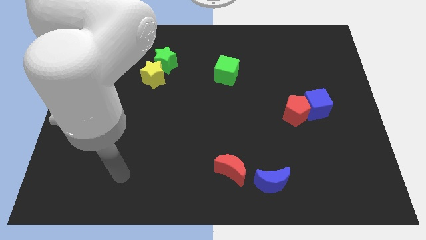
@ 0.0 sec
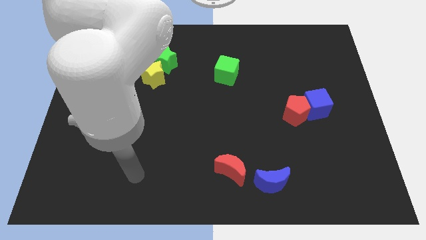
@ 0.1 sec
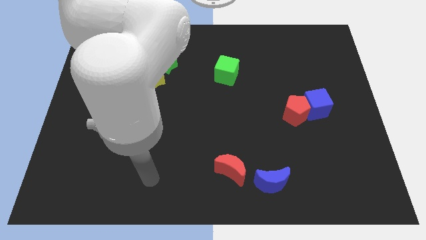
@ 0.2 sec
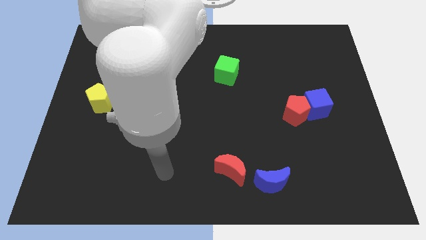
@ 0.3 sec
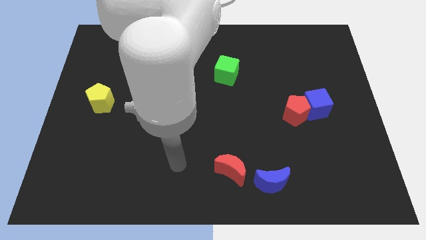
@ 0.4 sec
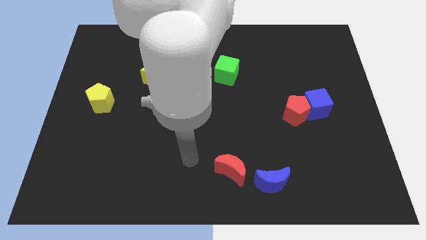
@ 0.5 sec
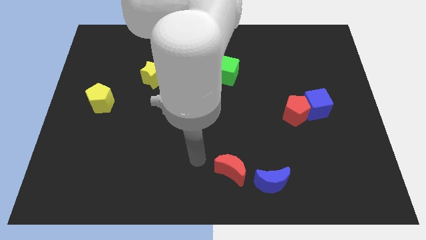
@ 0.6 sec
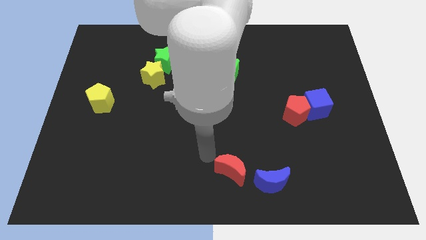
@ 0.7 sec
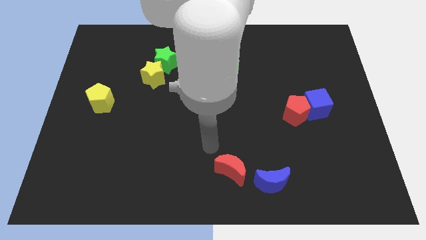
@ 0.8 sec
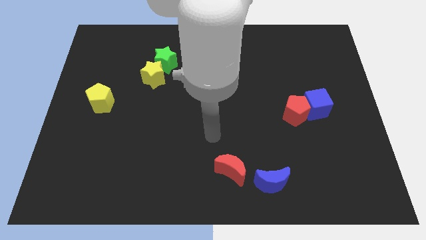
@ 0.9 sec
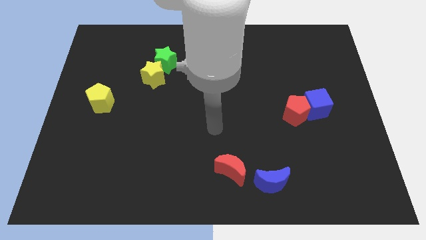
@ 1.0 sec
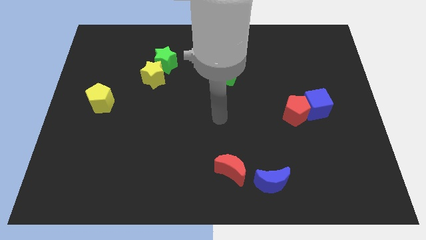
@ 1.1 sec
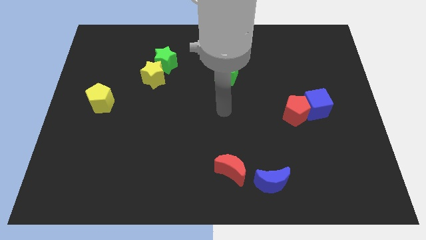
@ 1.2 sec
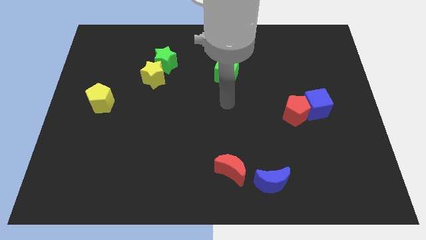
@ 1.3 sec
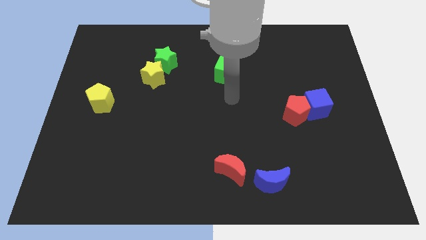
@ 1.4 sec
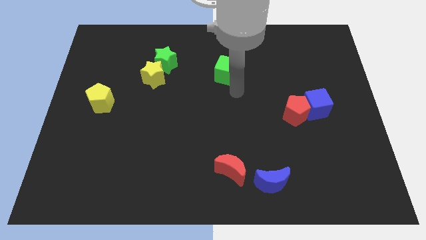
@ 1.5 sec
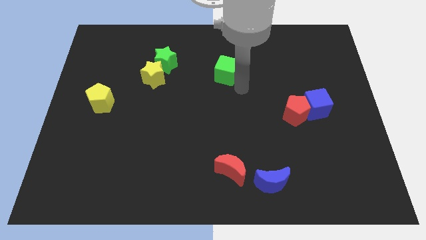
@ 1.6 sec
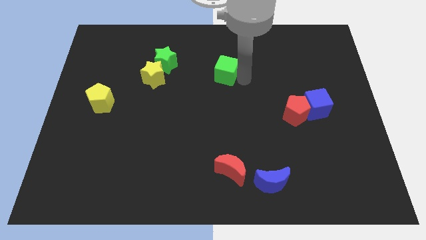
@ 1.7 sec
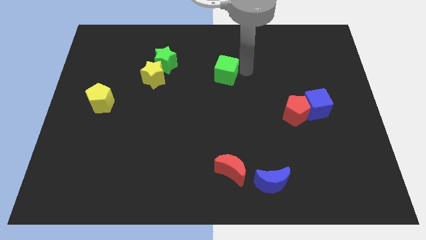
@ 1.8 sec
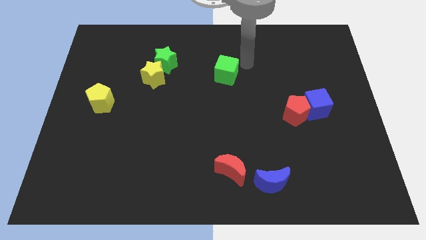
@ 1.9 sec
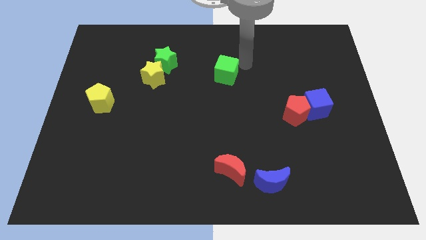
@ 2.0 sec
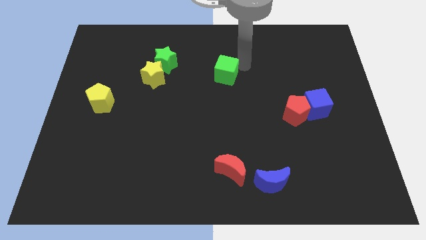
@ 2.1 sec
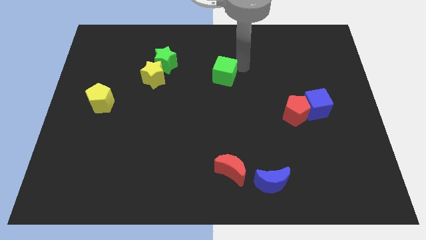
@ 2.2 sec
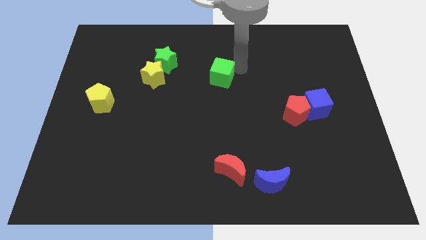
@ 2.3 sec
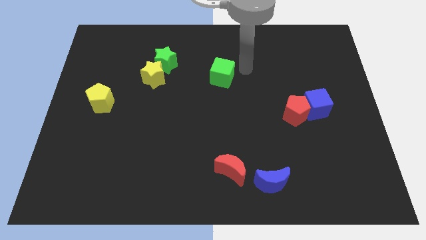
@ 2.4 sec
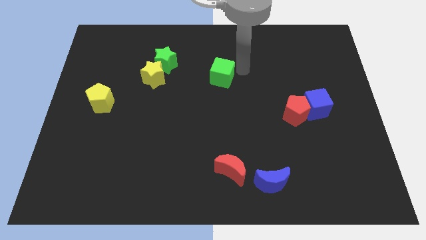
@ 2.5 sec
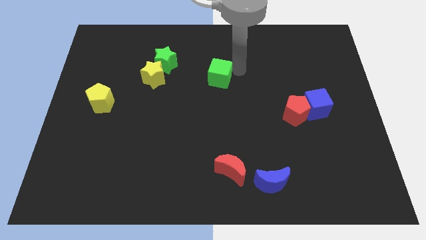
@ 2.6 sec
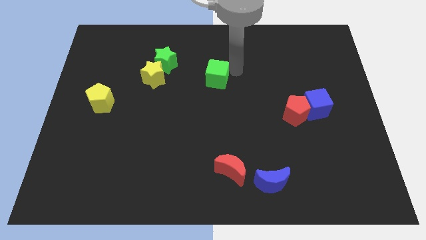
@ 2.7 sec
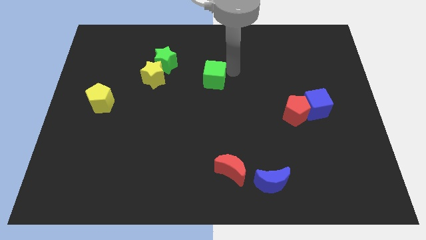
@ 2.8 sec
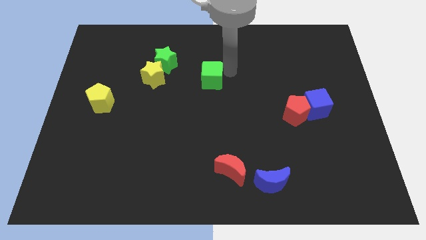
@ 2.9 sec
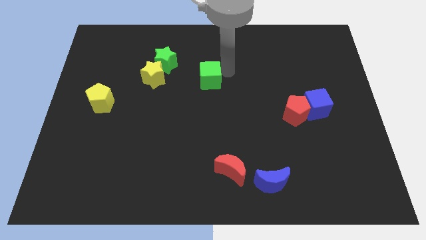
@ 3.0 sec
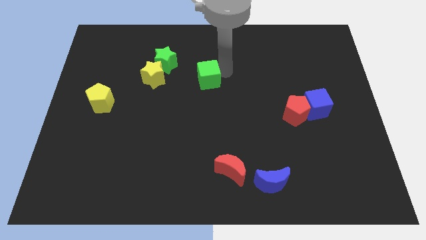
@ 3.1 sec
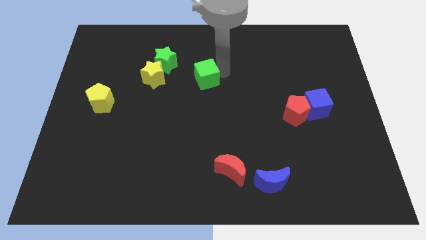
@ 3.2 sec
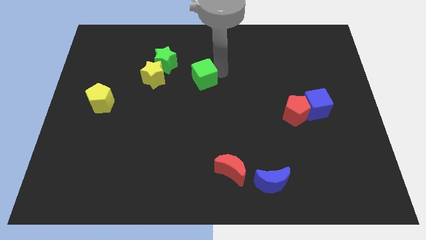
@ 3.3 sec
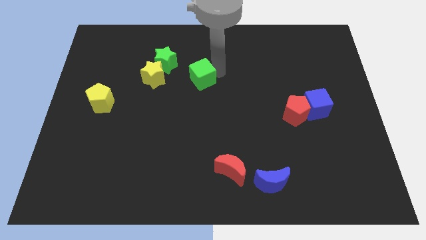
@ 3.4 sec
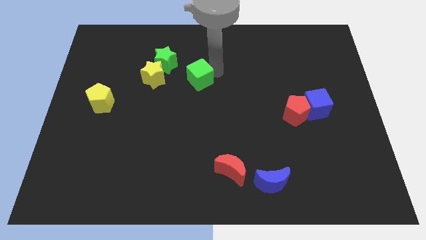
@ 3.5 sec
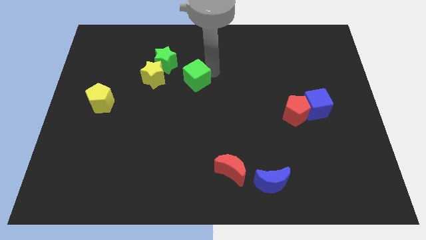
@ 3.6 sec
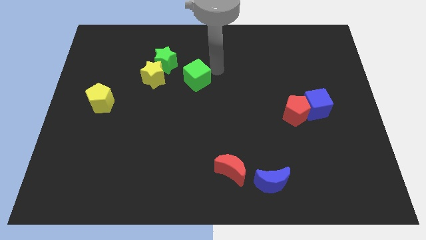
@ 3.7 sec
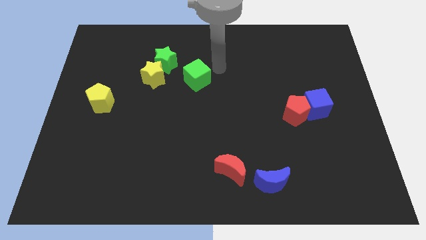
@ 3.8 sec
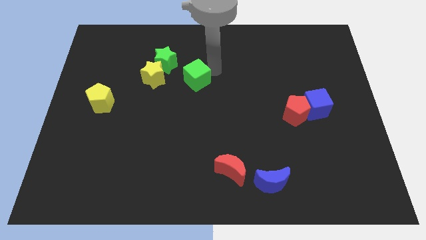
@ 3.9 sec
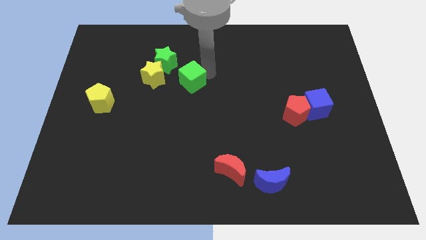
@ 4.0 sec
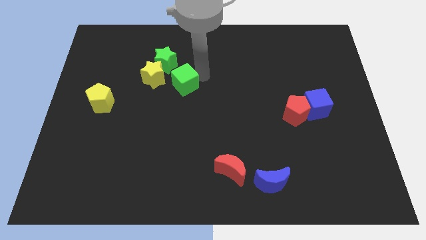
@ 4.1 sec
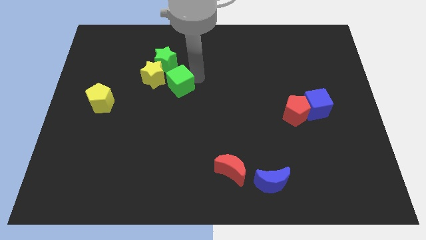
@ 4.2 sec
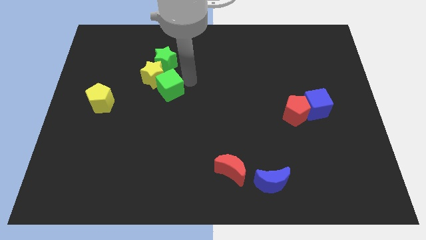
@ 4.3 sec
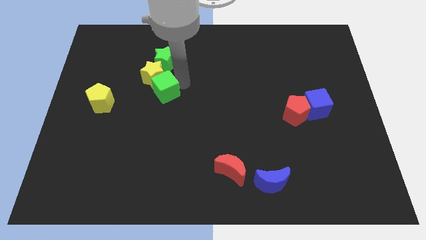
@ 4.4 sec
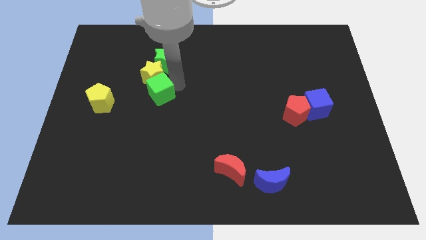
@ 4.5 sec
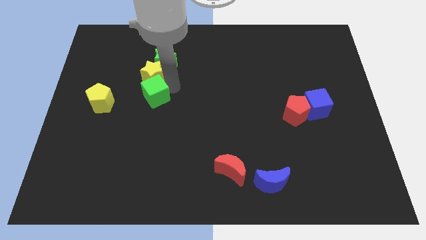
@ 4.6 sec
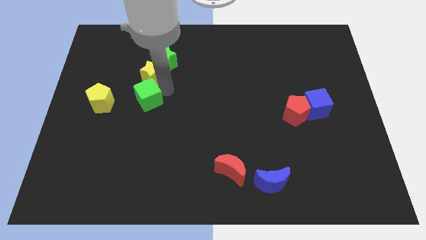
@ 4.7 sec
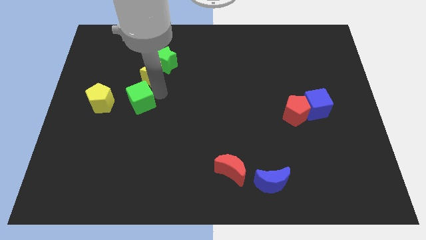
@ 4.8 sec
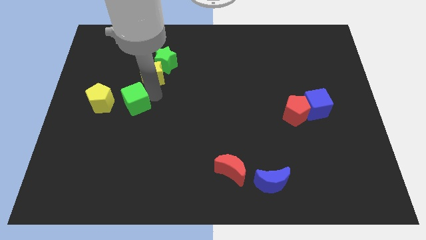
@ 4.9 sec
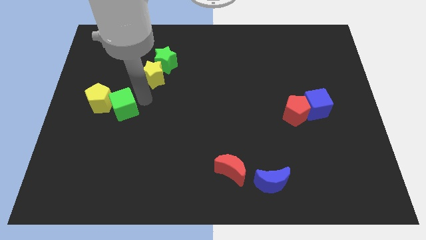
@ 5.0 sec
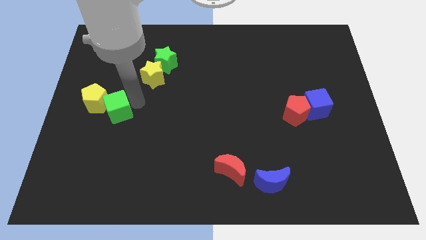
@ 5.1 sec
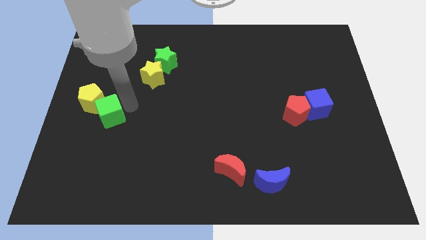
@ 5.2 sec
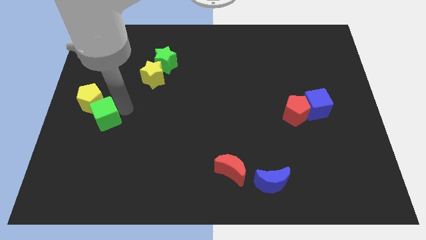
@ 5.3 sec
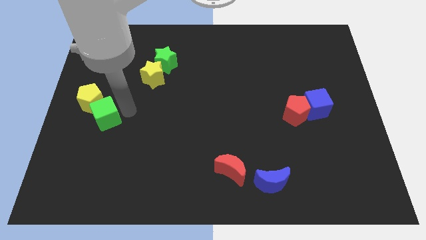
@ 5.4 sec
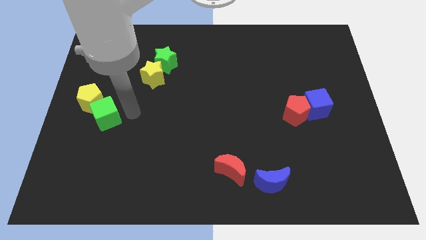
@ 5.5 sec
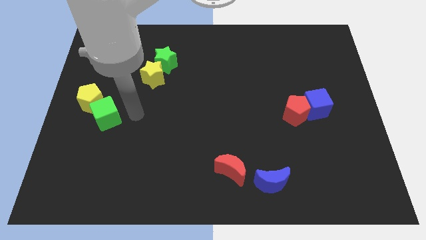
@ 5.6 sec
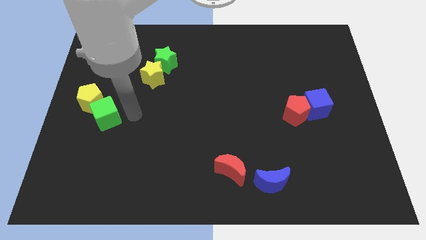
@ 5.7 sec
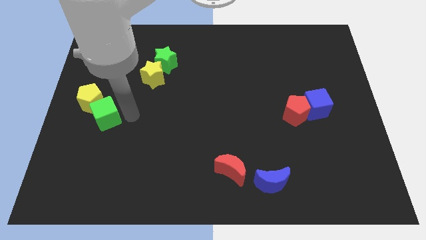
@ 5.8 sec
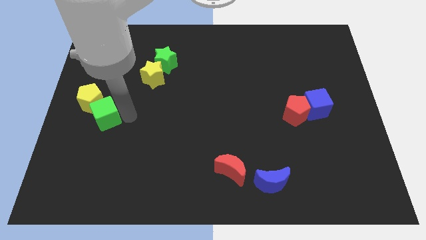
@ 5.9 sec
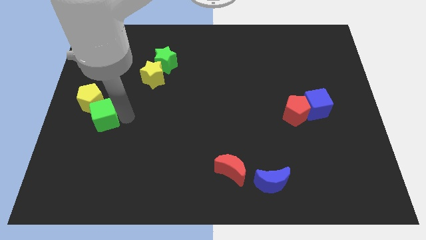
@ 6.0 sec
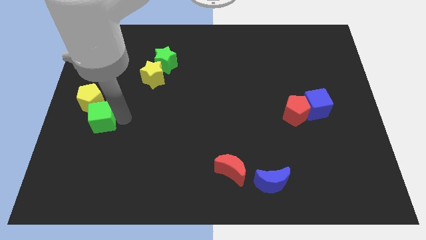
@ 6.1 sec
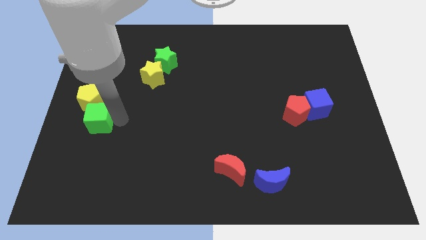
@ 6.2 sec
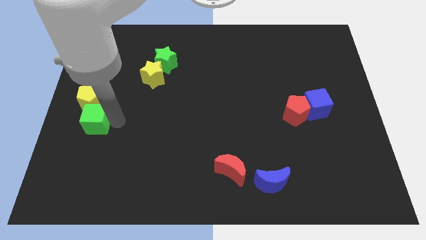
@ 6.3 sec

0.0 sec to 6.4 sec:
move the green cube to the left side of the board
